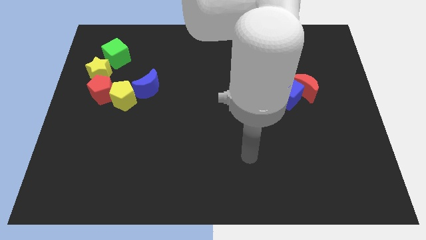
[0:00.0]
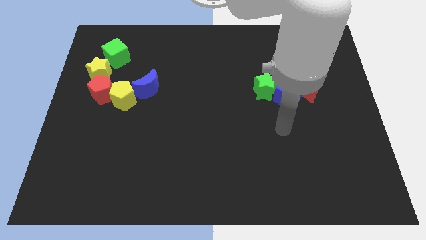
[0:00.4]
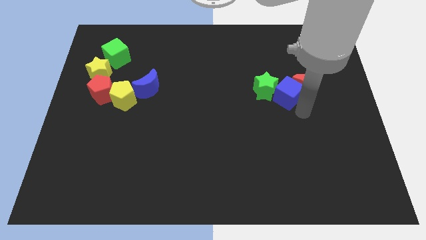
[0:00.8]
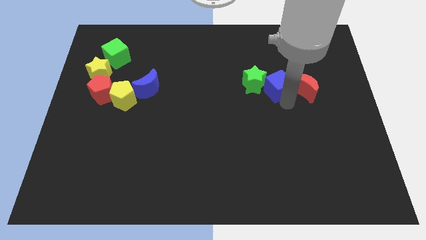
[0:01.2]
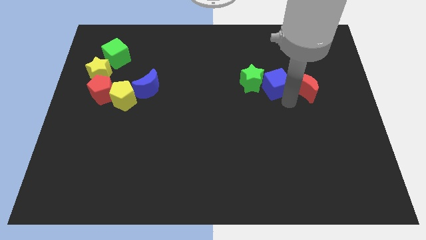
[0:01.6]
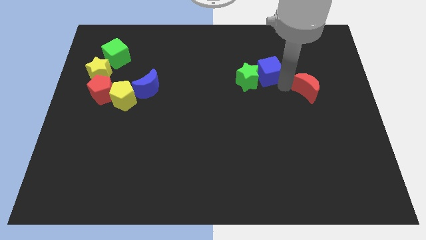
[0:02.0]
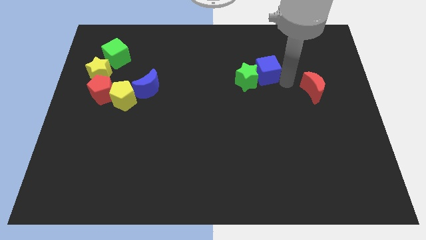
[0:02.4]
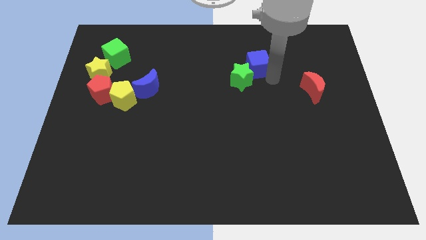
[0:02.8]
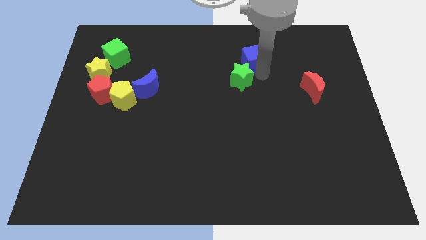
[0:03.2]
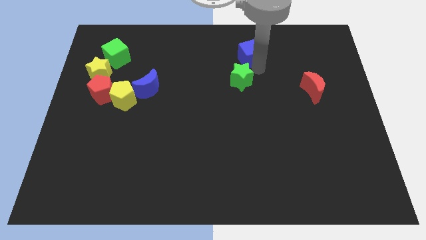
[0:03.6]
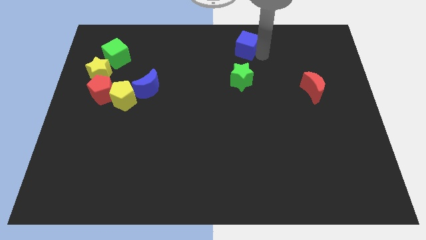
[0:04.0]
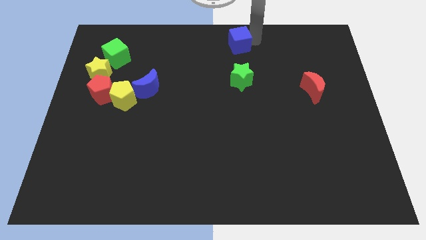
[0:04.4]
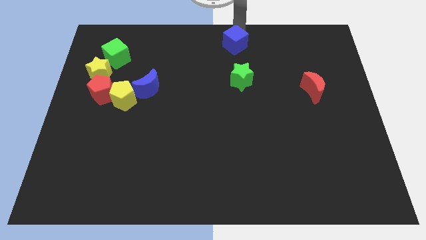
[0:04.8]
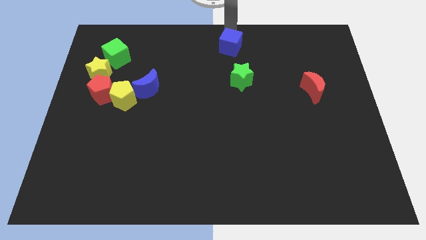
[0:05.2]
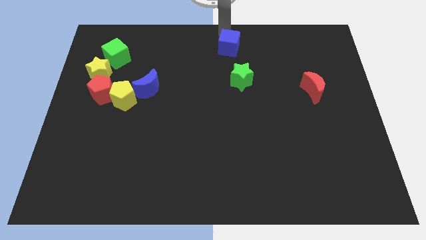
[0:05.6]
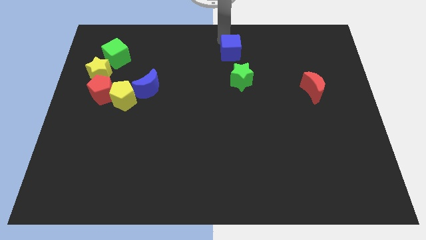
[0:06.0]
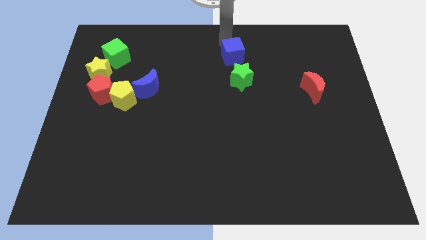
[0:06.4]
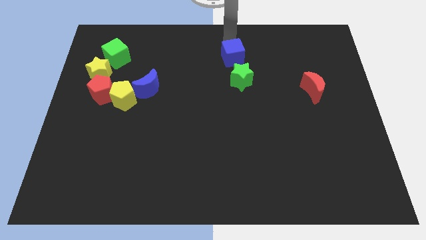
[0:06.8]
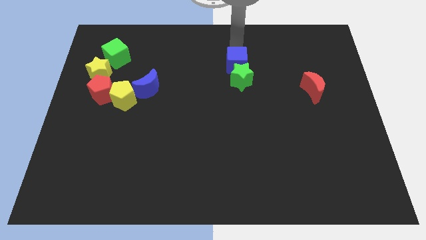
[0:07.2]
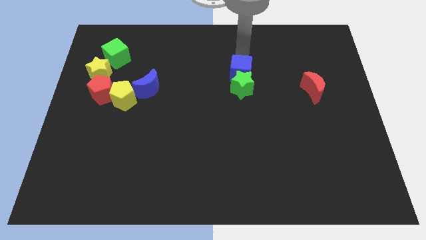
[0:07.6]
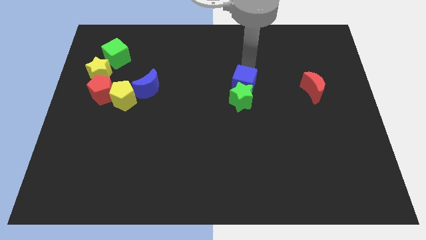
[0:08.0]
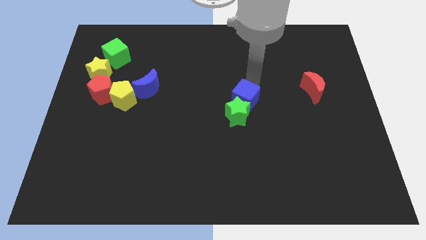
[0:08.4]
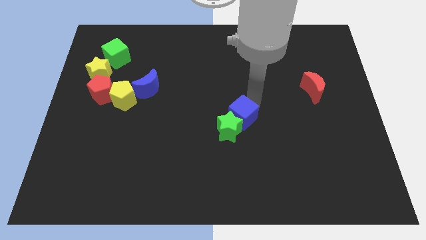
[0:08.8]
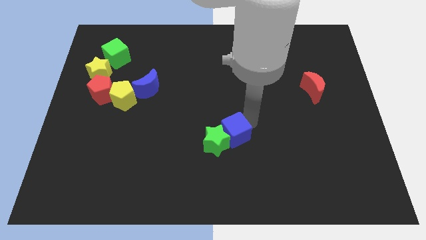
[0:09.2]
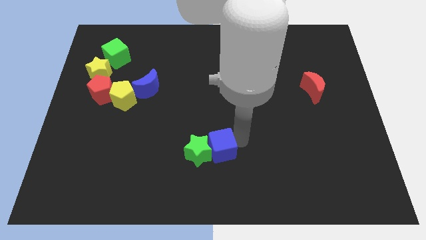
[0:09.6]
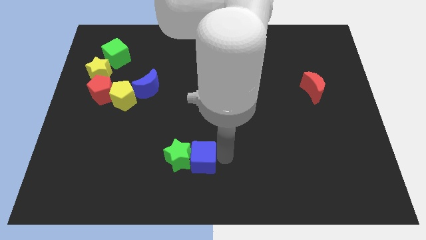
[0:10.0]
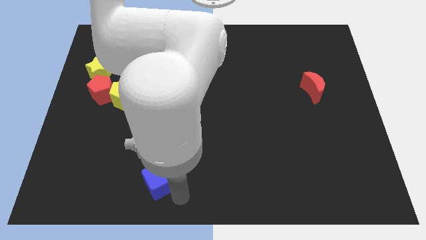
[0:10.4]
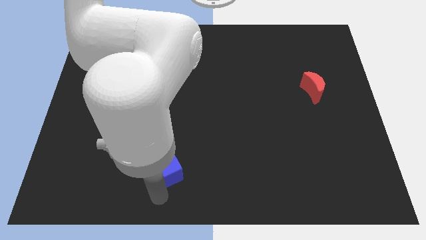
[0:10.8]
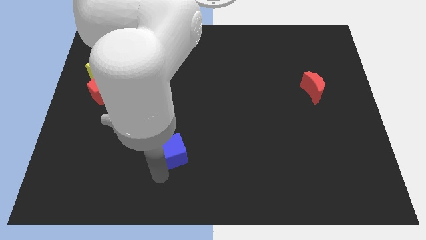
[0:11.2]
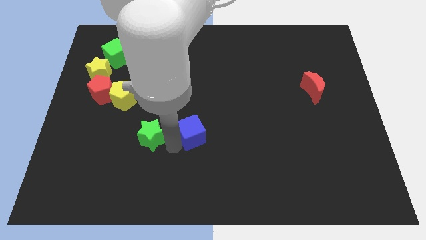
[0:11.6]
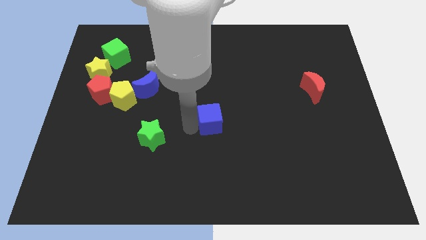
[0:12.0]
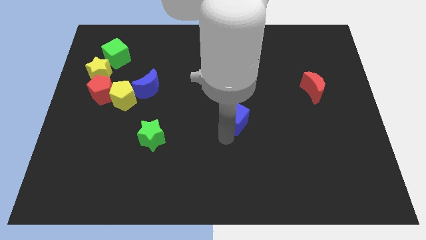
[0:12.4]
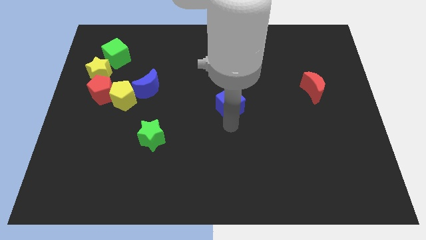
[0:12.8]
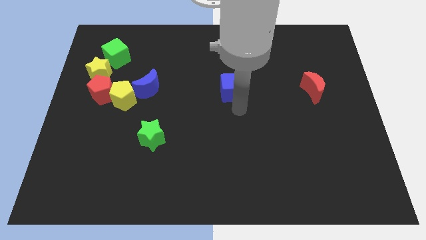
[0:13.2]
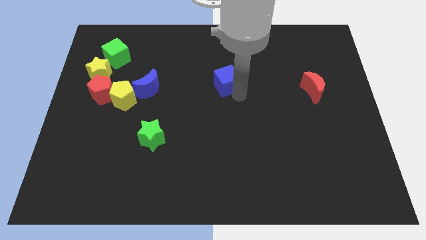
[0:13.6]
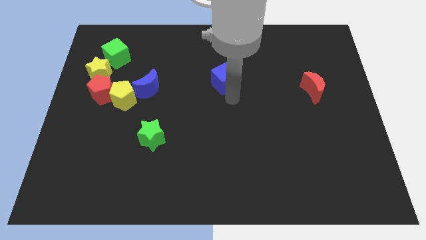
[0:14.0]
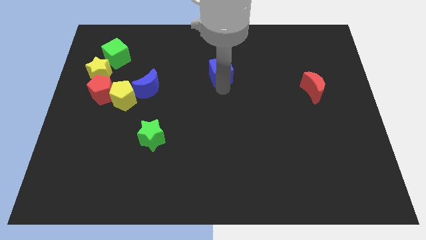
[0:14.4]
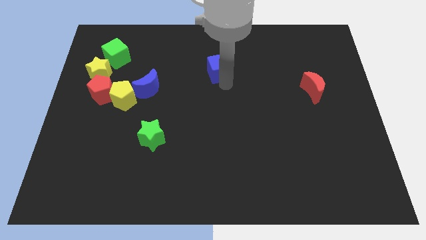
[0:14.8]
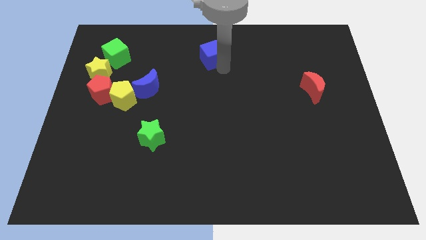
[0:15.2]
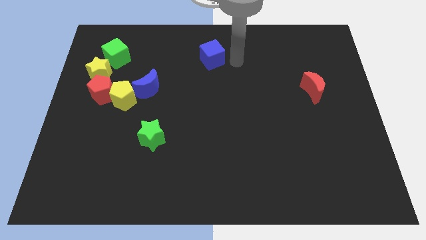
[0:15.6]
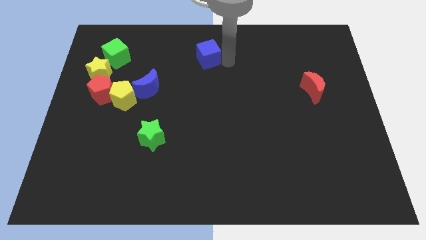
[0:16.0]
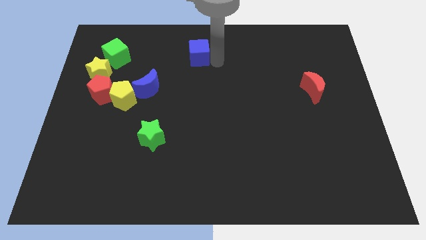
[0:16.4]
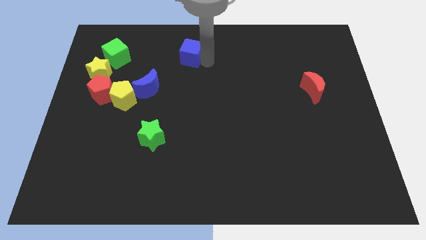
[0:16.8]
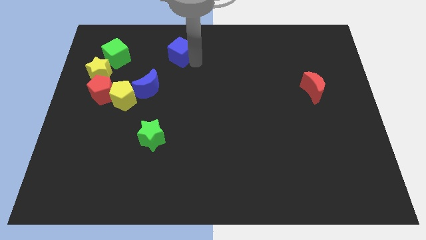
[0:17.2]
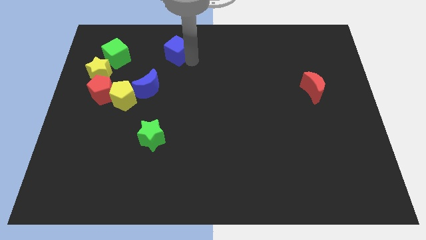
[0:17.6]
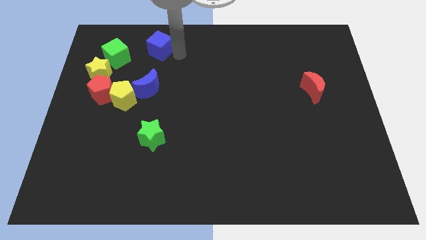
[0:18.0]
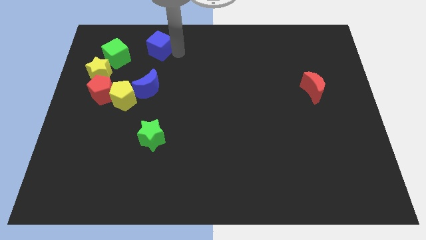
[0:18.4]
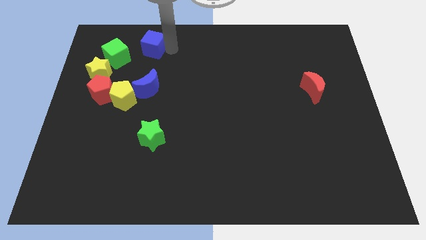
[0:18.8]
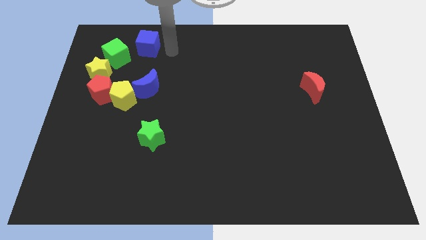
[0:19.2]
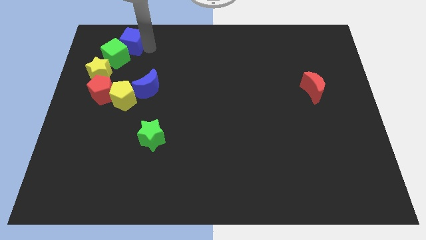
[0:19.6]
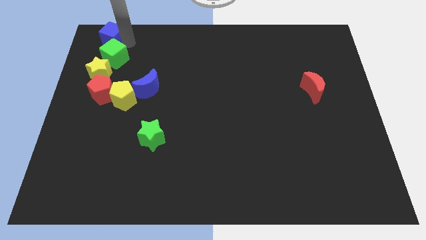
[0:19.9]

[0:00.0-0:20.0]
push the blue cube to the top left

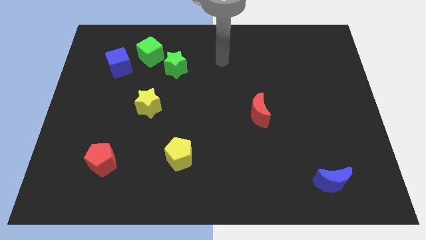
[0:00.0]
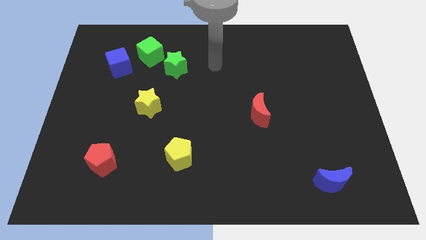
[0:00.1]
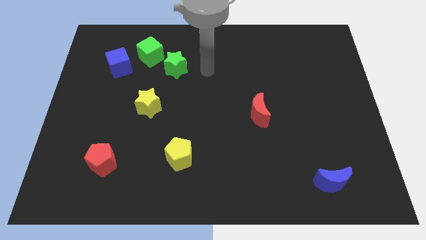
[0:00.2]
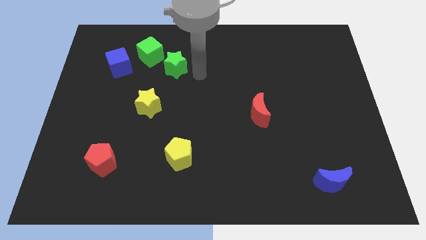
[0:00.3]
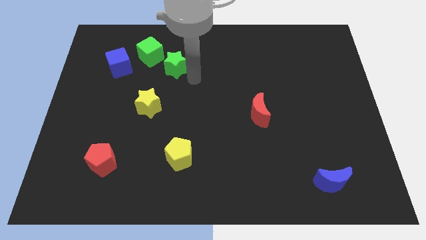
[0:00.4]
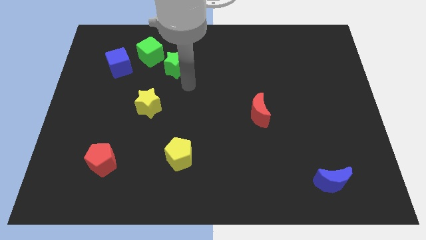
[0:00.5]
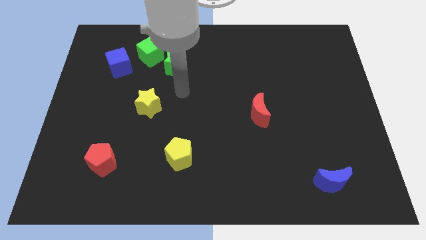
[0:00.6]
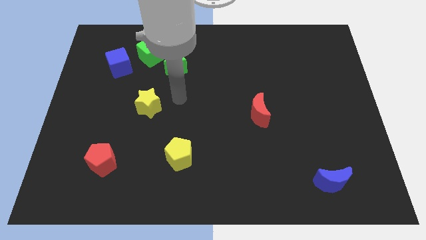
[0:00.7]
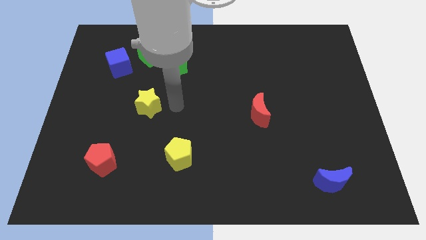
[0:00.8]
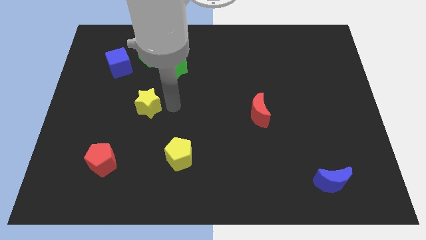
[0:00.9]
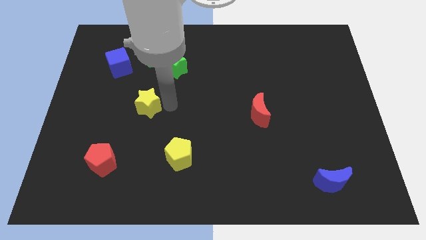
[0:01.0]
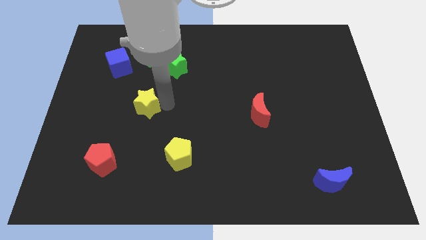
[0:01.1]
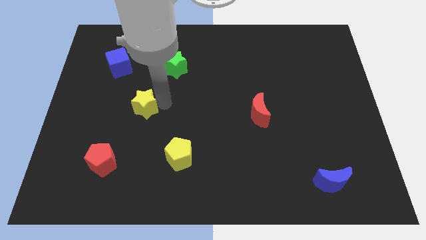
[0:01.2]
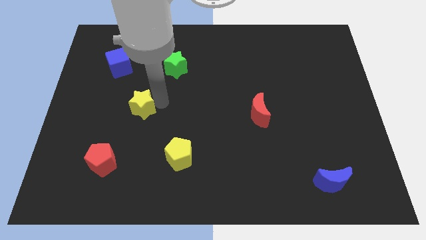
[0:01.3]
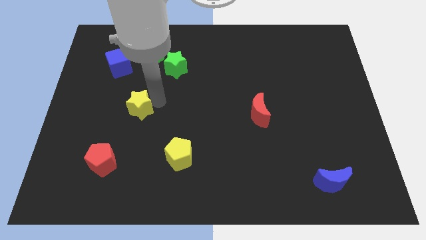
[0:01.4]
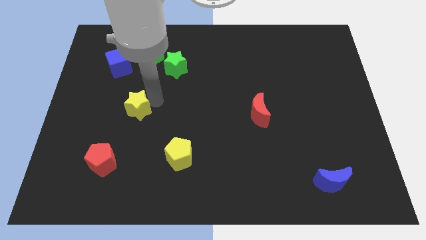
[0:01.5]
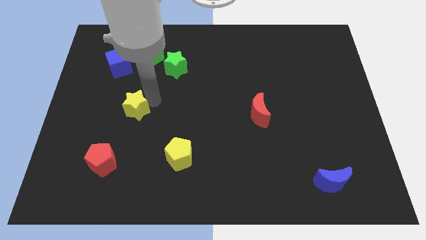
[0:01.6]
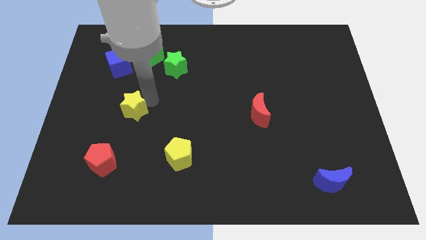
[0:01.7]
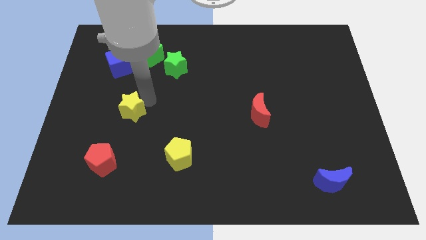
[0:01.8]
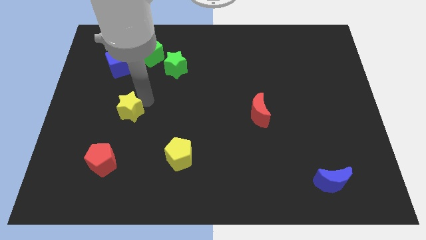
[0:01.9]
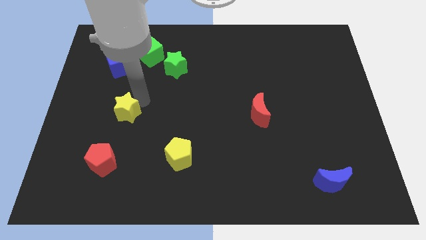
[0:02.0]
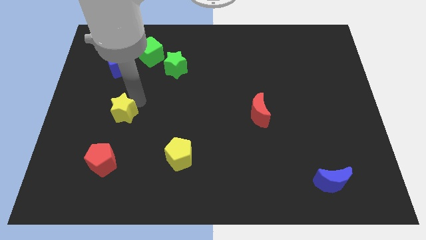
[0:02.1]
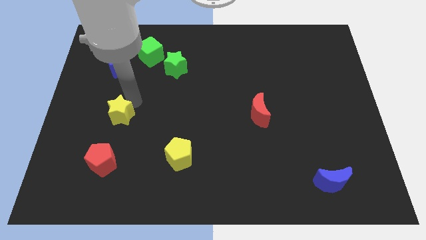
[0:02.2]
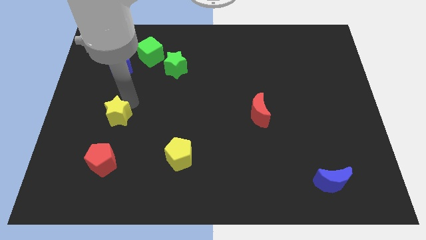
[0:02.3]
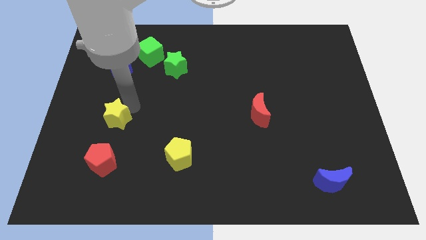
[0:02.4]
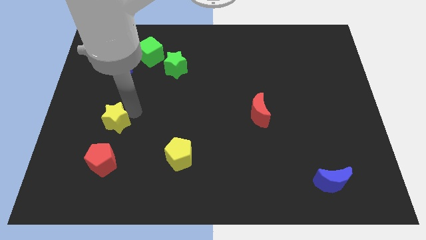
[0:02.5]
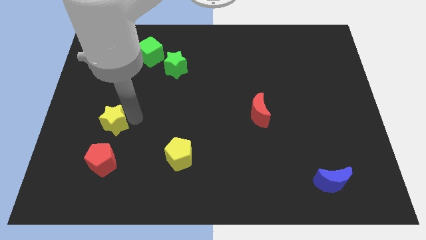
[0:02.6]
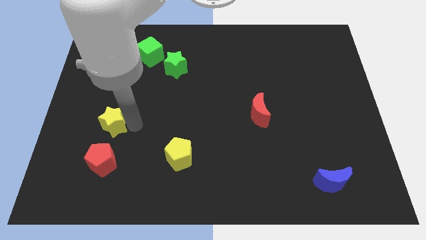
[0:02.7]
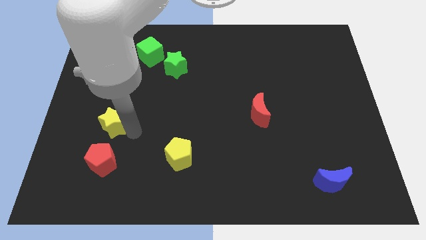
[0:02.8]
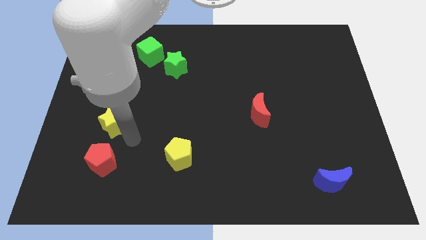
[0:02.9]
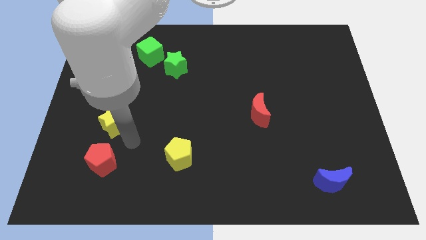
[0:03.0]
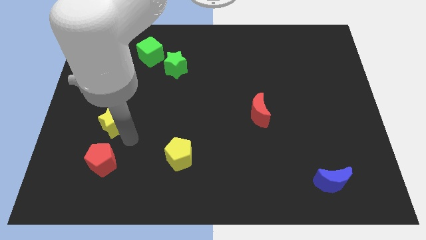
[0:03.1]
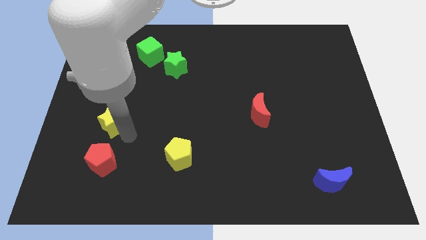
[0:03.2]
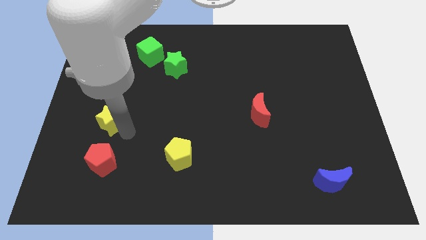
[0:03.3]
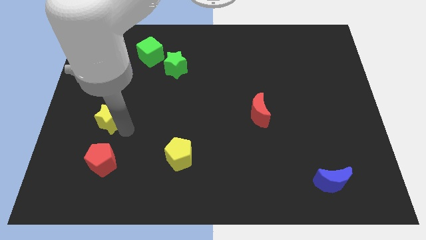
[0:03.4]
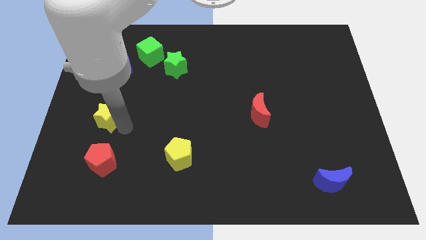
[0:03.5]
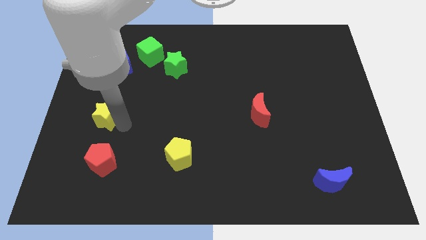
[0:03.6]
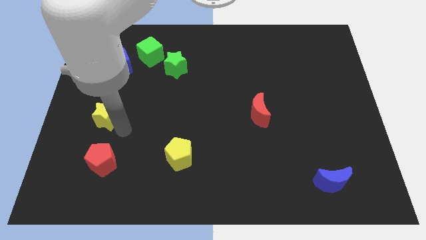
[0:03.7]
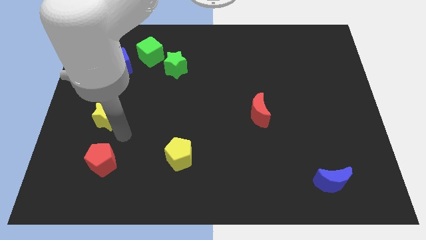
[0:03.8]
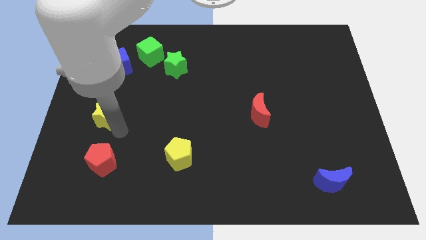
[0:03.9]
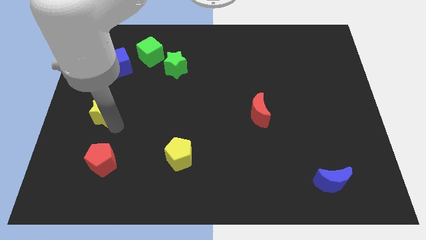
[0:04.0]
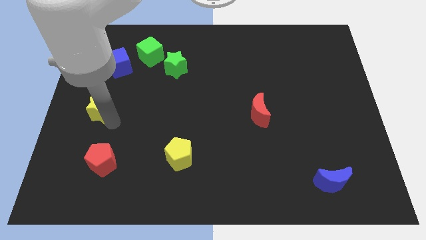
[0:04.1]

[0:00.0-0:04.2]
slide the yellow star to the center left
